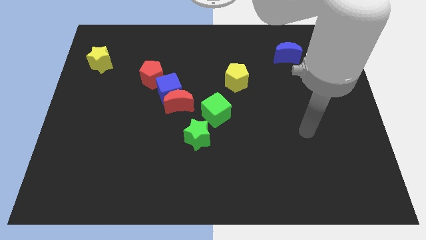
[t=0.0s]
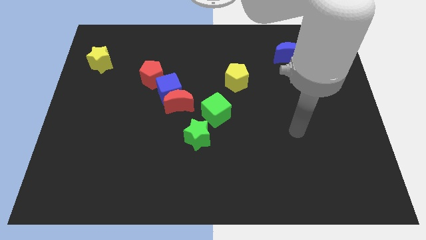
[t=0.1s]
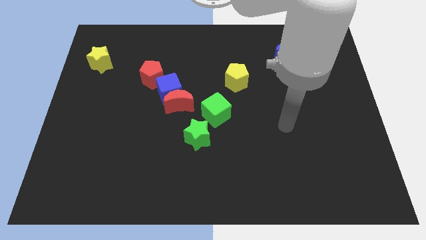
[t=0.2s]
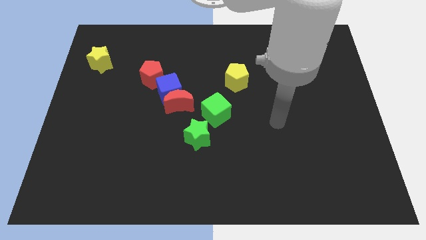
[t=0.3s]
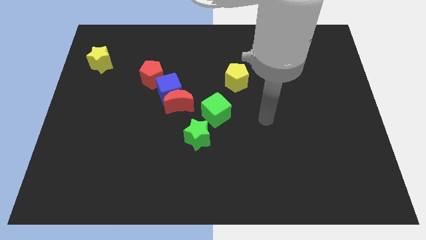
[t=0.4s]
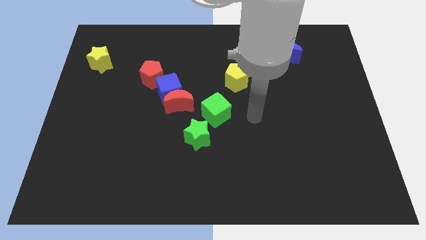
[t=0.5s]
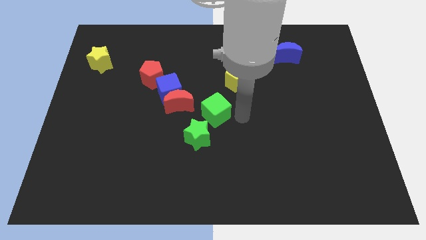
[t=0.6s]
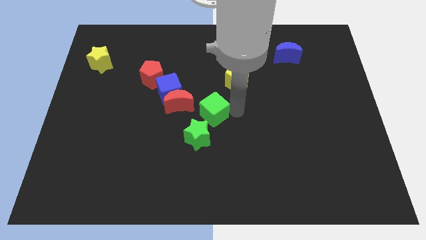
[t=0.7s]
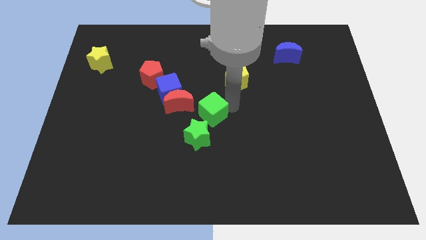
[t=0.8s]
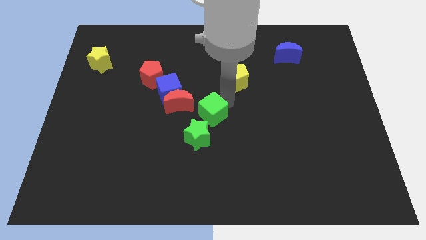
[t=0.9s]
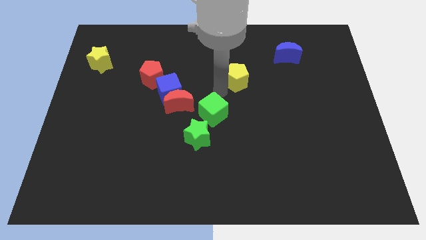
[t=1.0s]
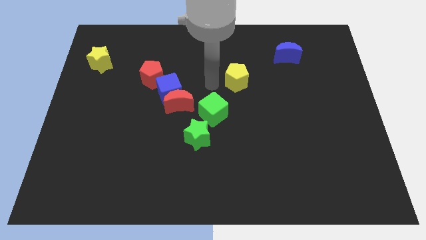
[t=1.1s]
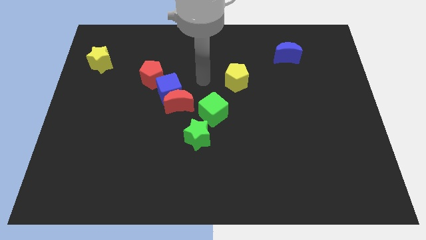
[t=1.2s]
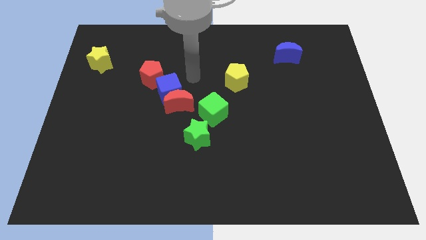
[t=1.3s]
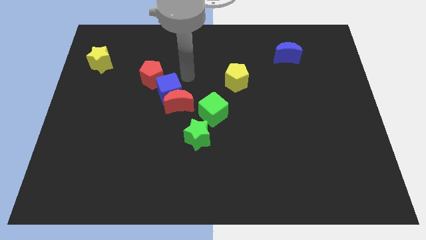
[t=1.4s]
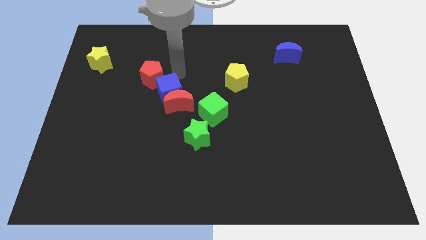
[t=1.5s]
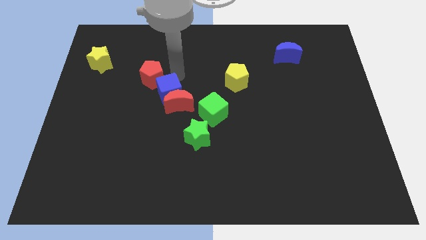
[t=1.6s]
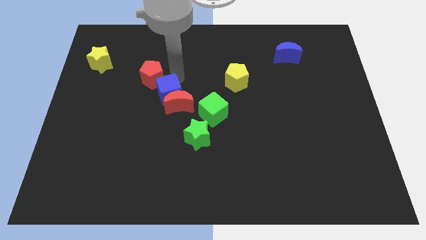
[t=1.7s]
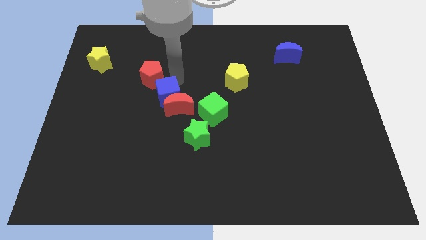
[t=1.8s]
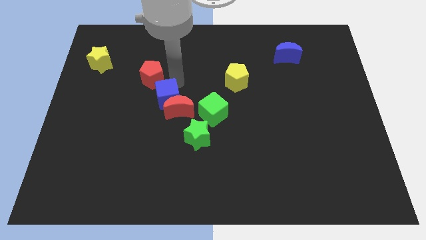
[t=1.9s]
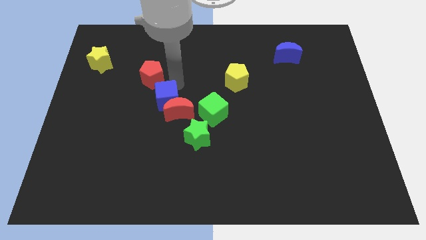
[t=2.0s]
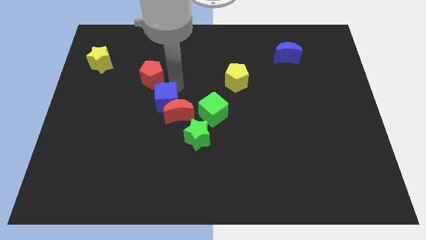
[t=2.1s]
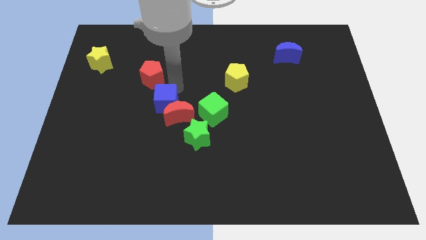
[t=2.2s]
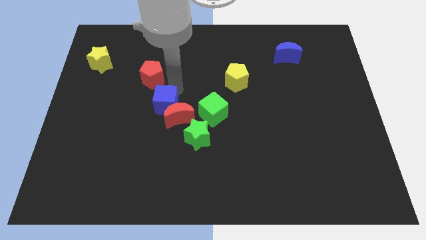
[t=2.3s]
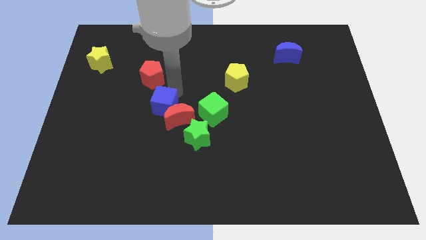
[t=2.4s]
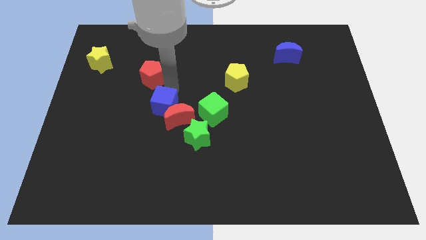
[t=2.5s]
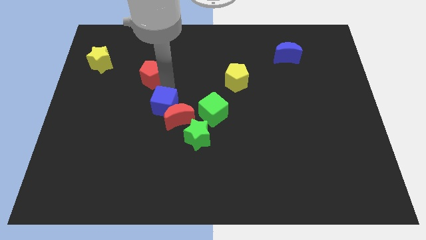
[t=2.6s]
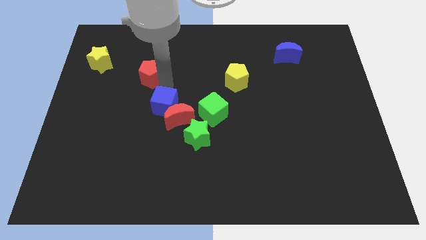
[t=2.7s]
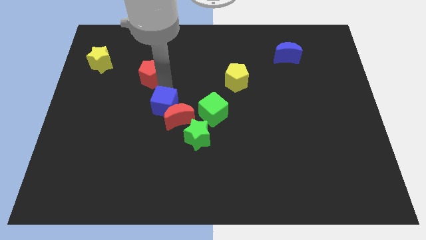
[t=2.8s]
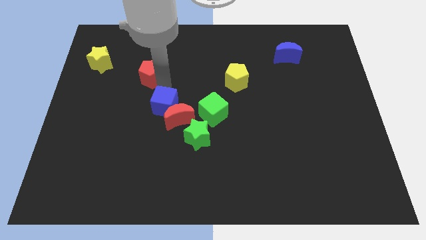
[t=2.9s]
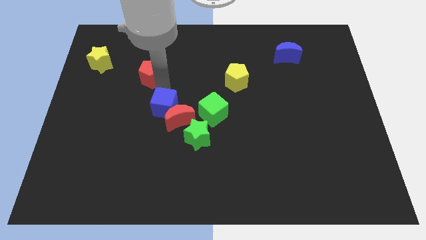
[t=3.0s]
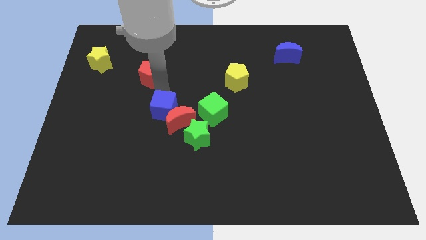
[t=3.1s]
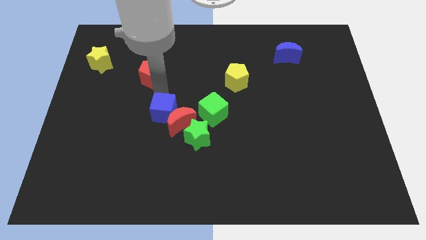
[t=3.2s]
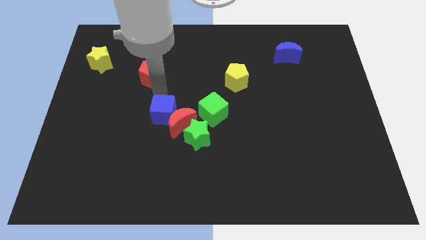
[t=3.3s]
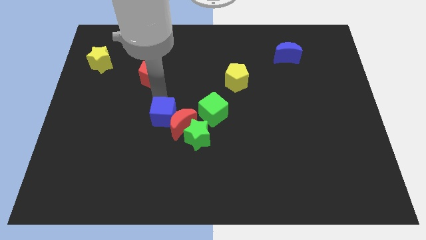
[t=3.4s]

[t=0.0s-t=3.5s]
slightly push the blue cube downwards

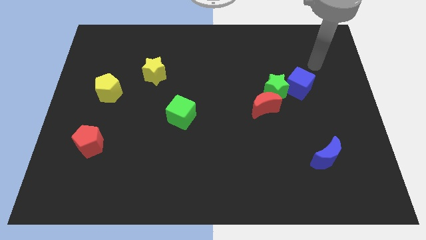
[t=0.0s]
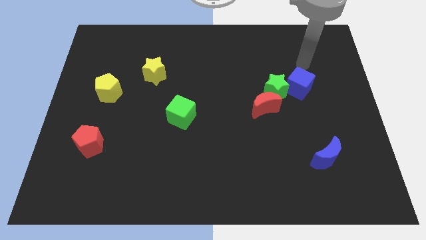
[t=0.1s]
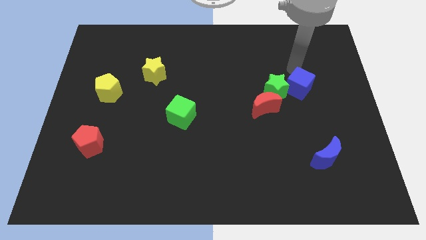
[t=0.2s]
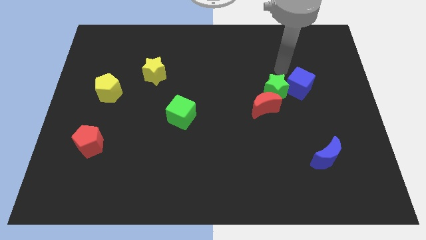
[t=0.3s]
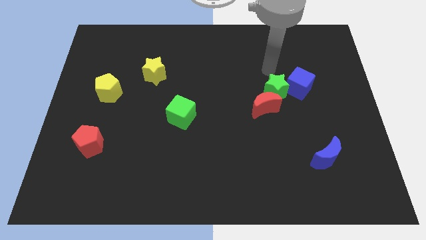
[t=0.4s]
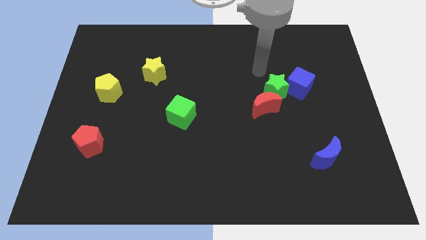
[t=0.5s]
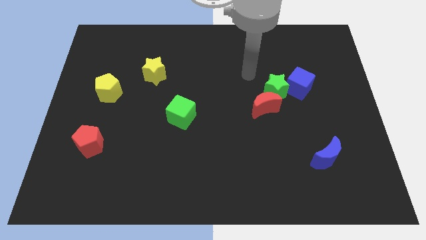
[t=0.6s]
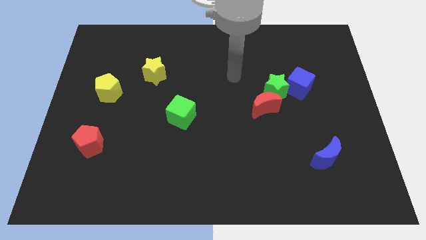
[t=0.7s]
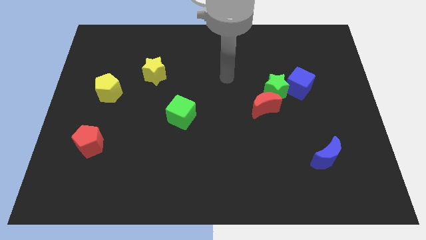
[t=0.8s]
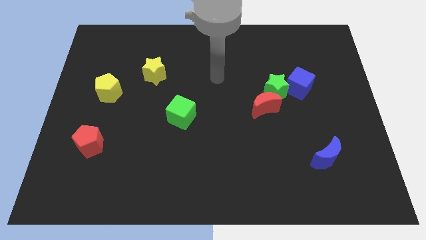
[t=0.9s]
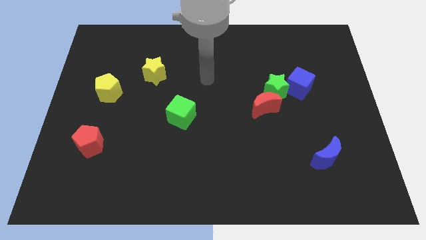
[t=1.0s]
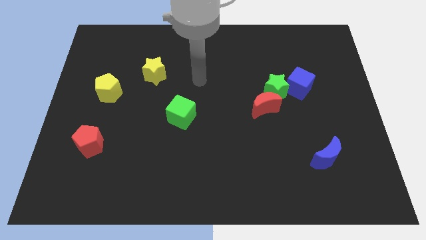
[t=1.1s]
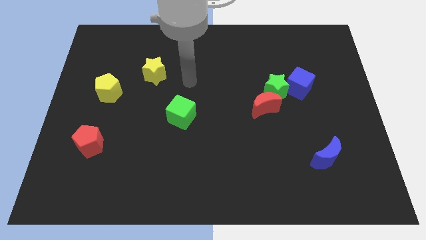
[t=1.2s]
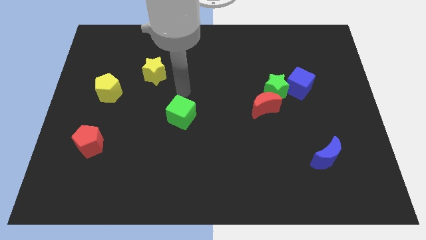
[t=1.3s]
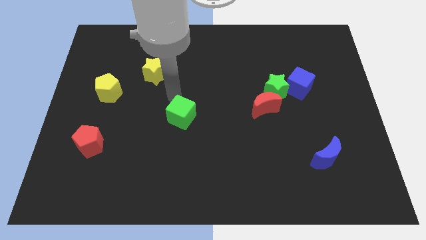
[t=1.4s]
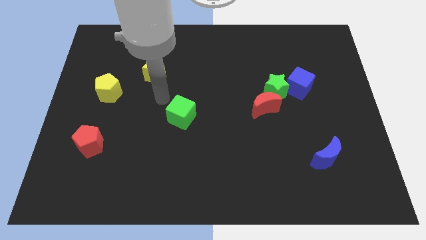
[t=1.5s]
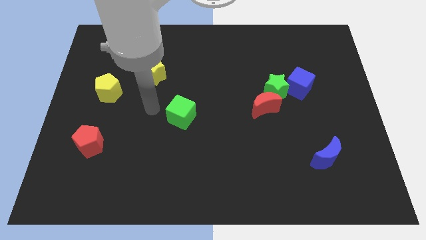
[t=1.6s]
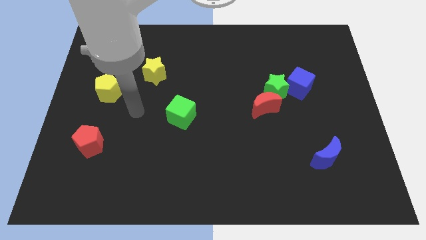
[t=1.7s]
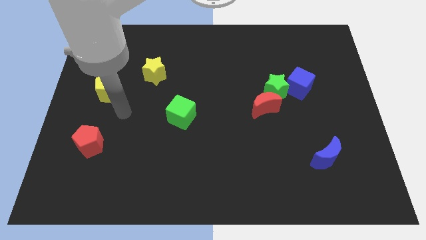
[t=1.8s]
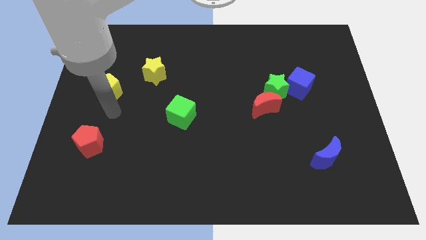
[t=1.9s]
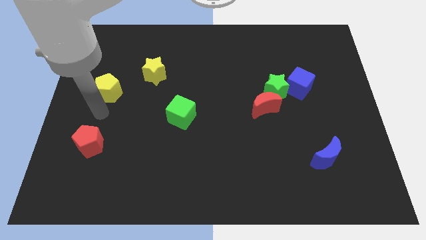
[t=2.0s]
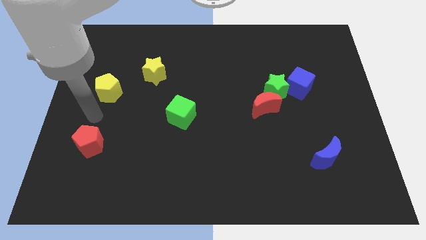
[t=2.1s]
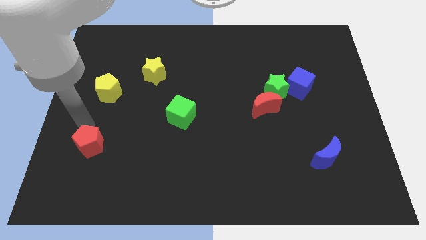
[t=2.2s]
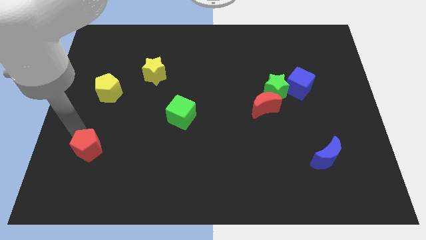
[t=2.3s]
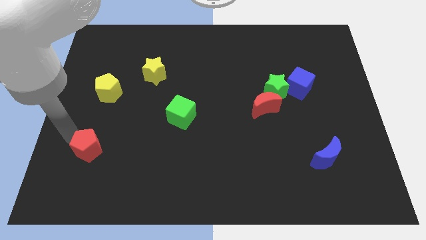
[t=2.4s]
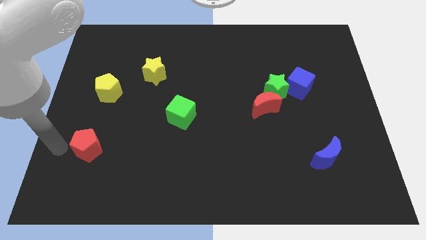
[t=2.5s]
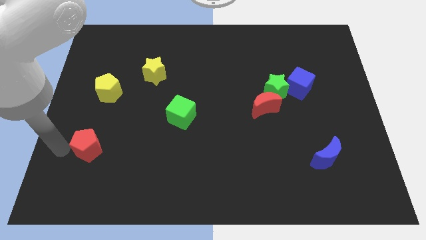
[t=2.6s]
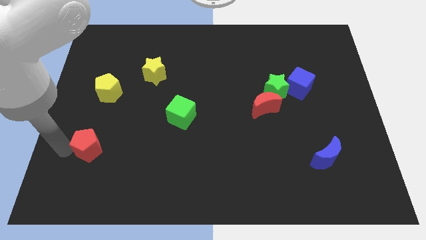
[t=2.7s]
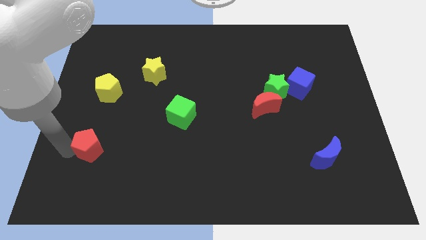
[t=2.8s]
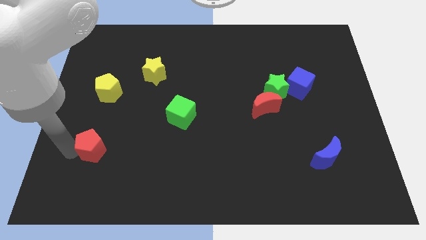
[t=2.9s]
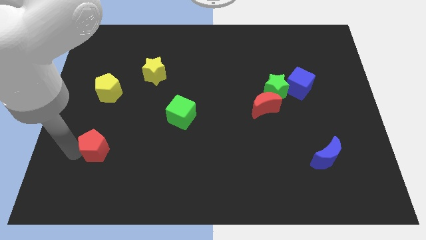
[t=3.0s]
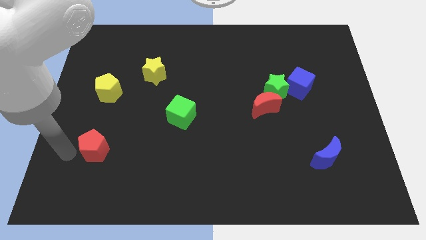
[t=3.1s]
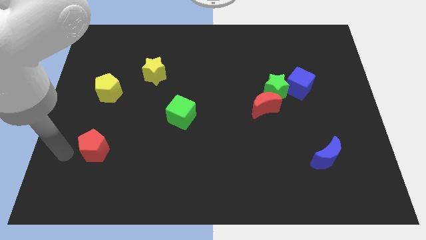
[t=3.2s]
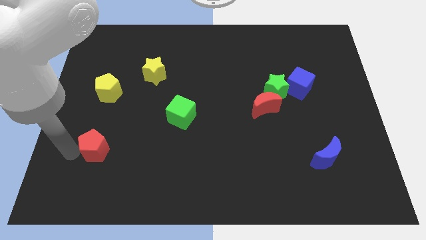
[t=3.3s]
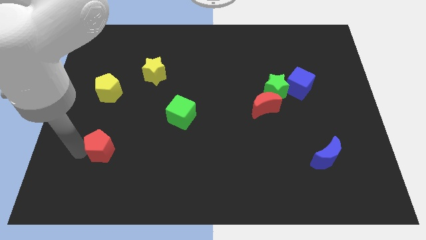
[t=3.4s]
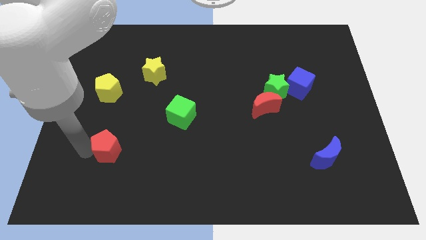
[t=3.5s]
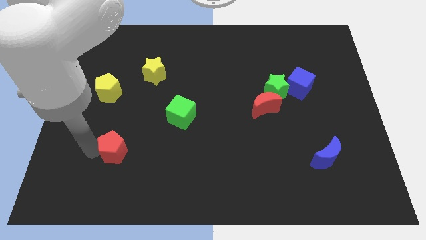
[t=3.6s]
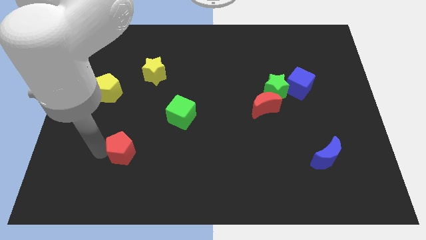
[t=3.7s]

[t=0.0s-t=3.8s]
slide the red pentagon somewhat to the right

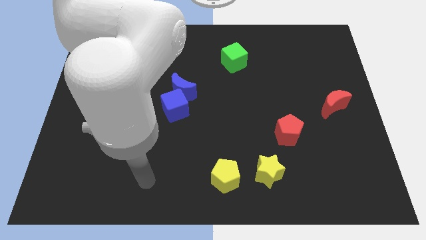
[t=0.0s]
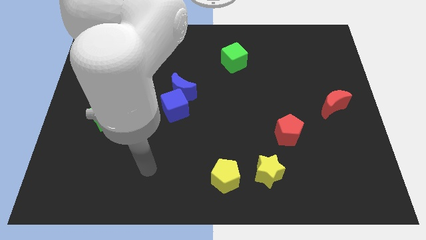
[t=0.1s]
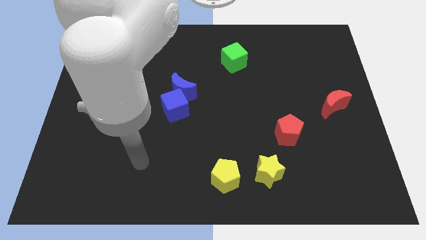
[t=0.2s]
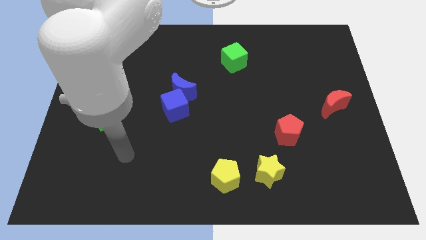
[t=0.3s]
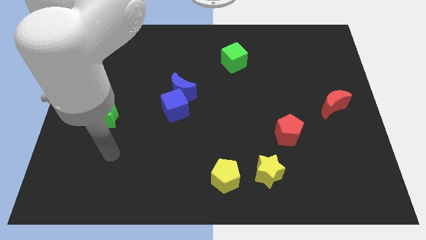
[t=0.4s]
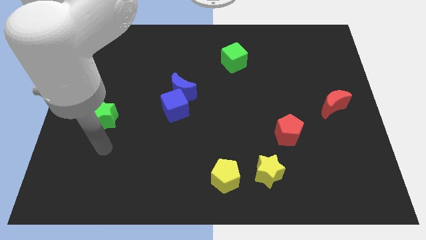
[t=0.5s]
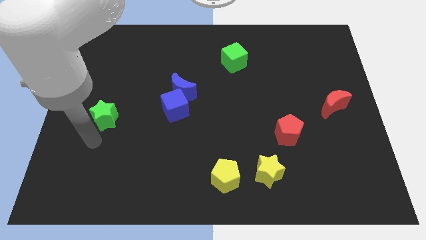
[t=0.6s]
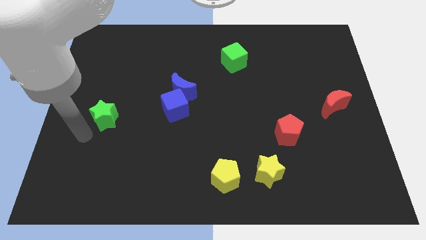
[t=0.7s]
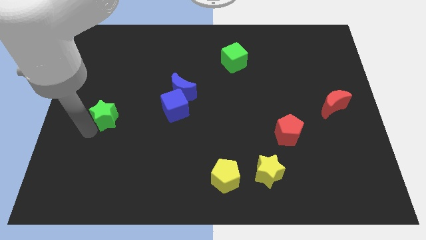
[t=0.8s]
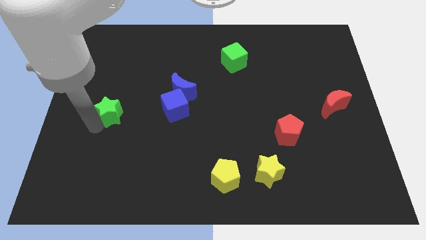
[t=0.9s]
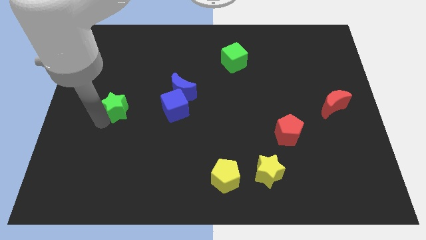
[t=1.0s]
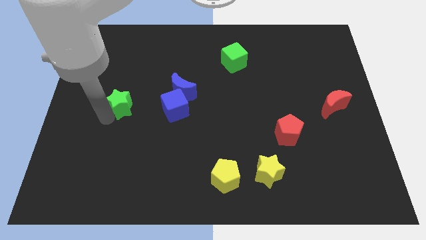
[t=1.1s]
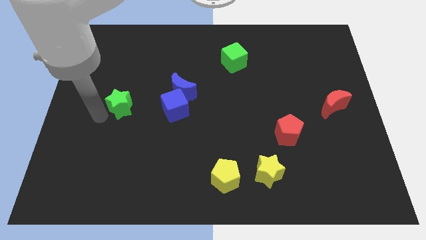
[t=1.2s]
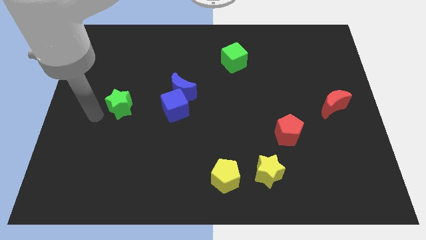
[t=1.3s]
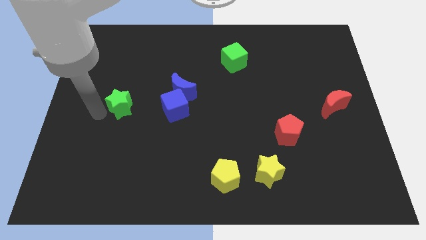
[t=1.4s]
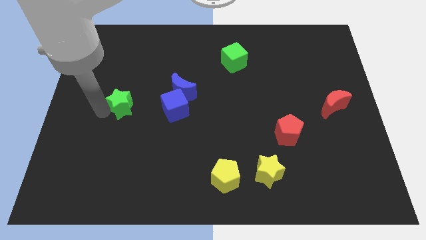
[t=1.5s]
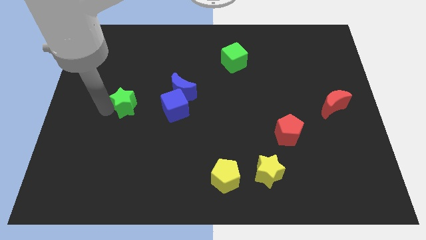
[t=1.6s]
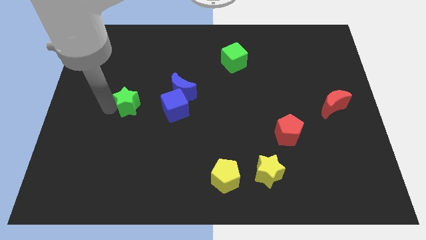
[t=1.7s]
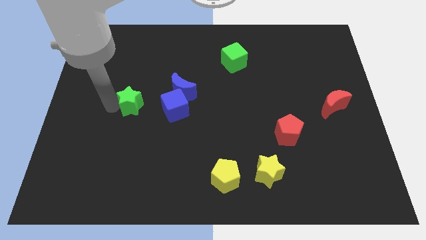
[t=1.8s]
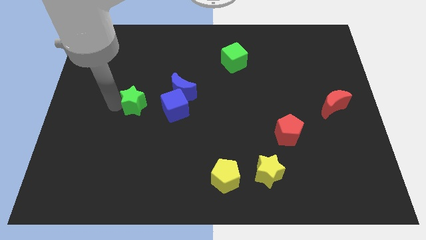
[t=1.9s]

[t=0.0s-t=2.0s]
push the green star a little diagonally upwards and right
